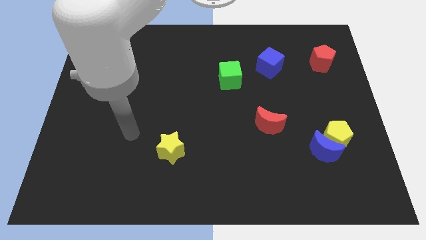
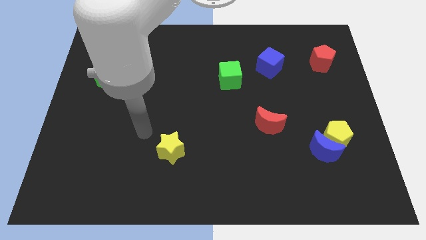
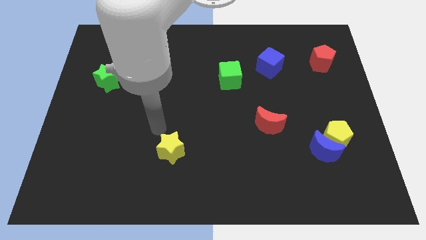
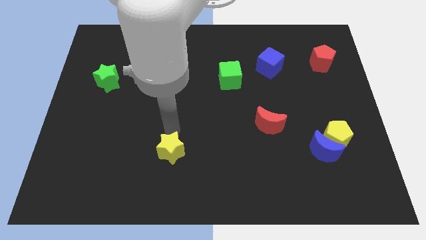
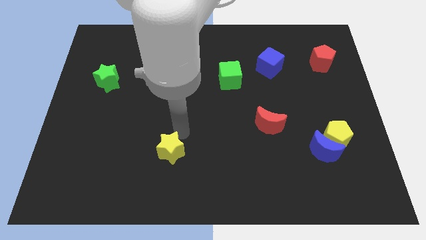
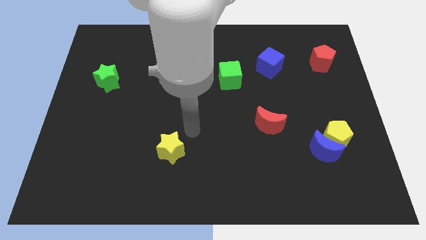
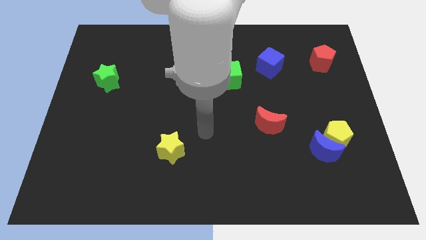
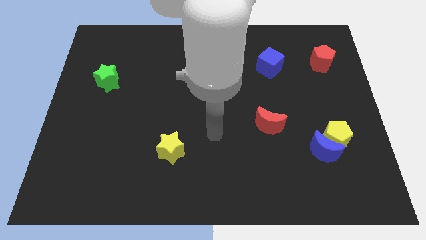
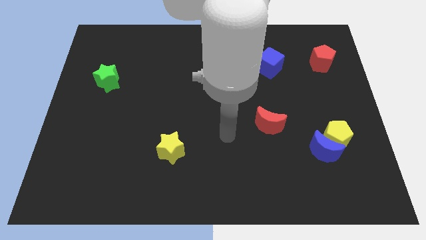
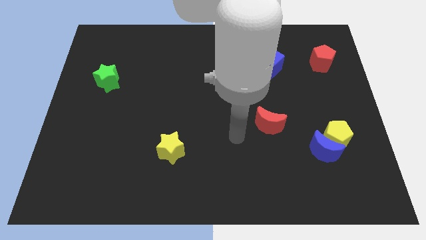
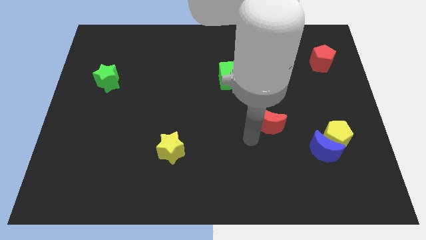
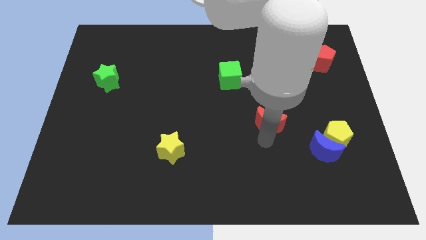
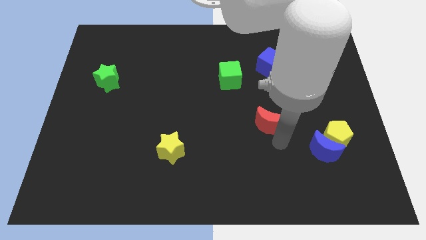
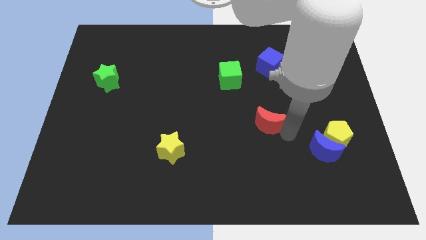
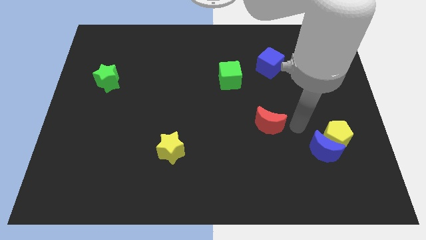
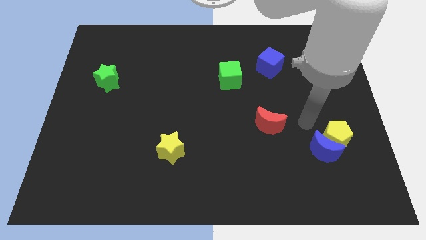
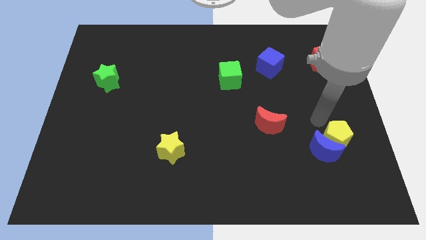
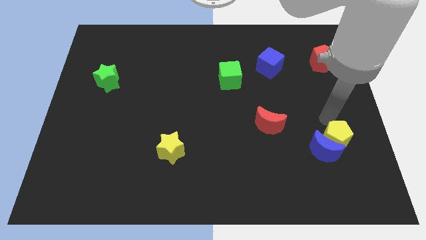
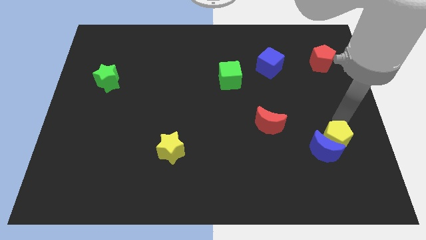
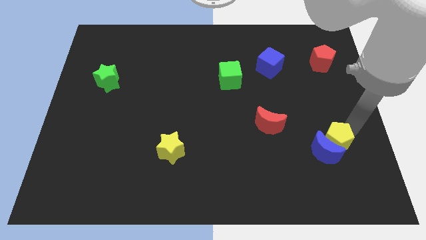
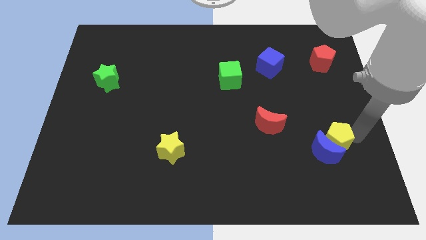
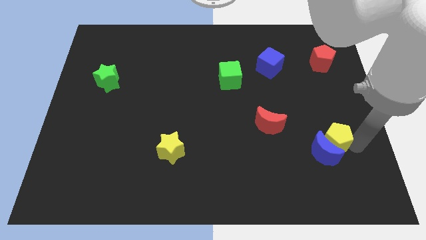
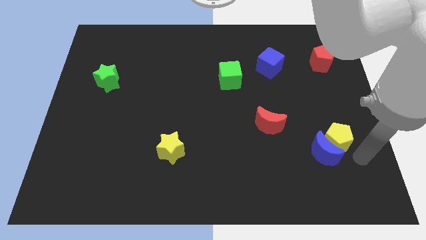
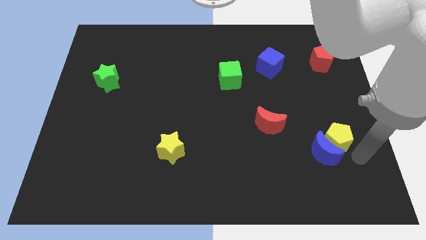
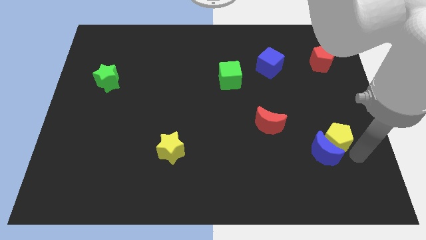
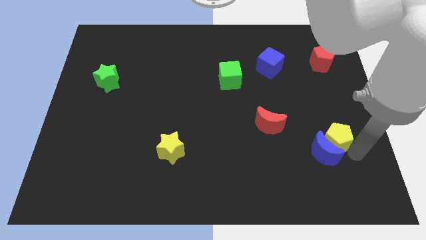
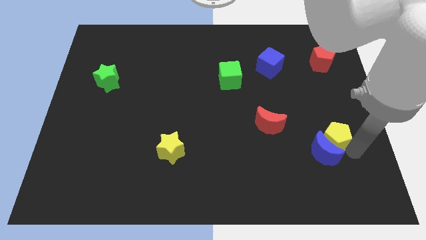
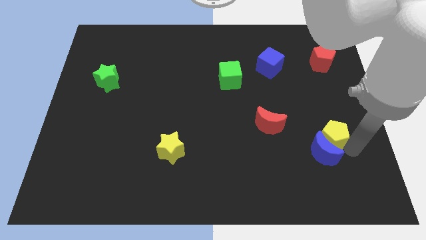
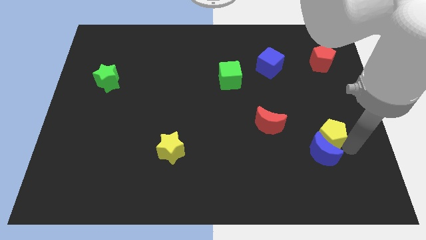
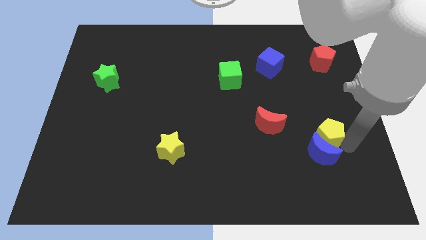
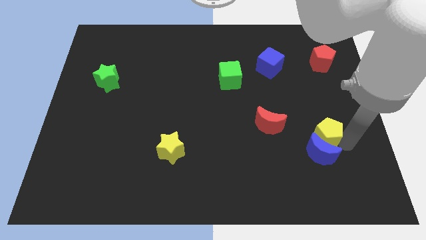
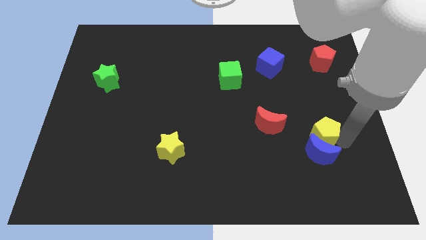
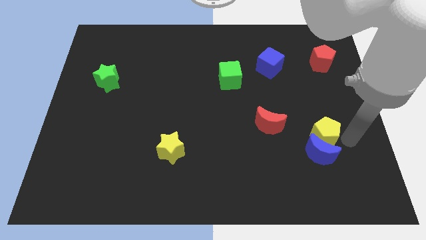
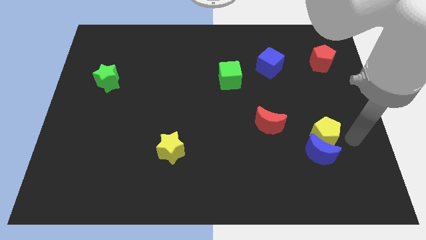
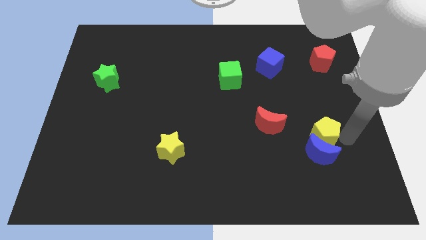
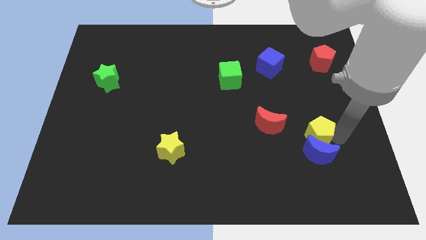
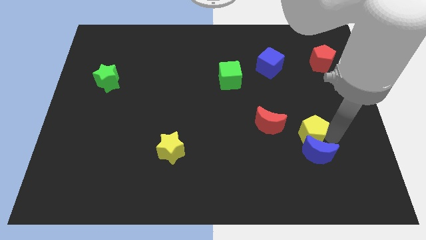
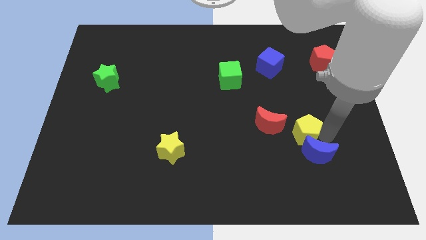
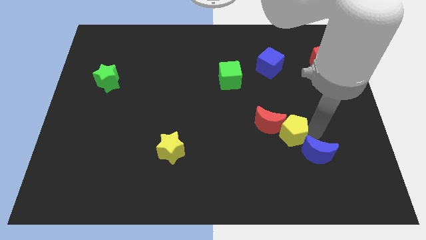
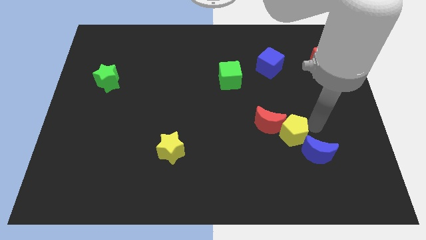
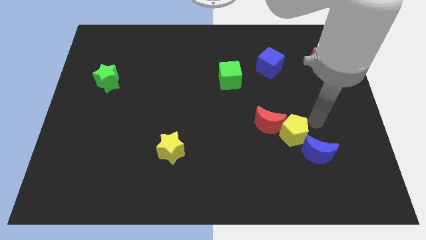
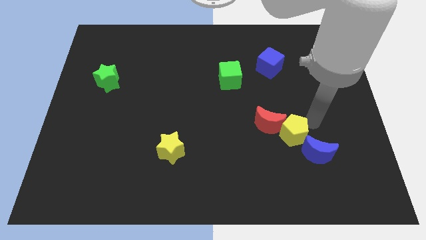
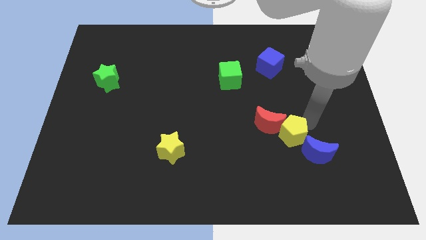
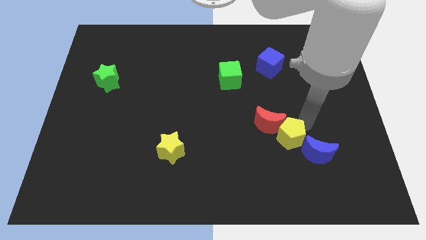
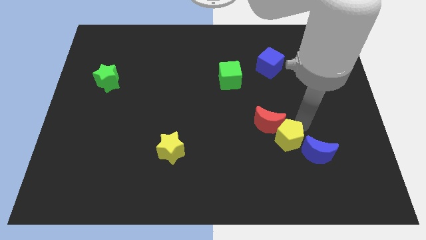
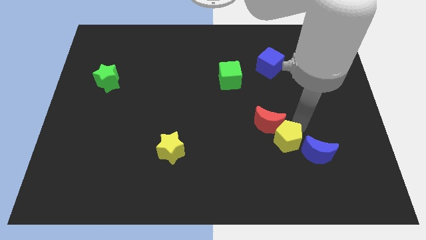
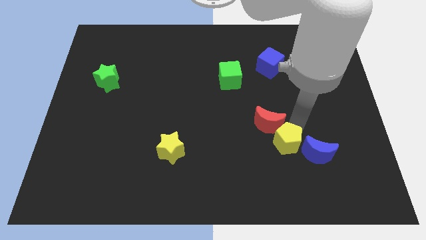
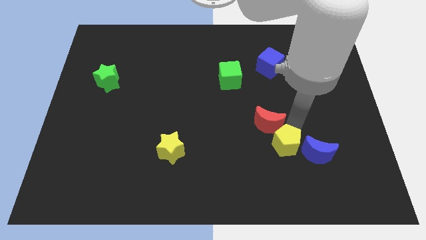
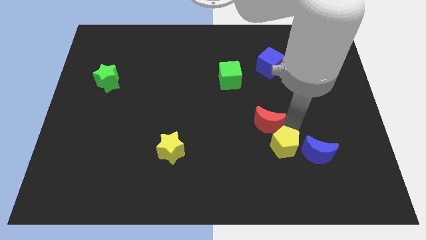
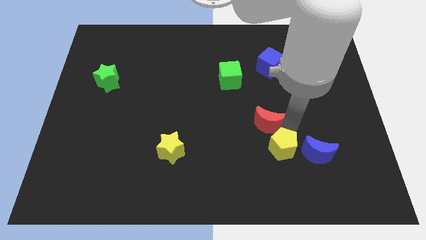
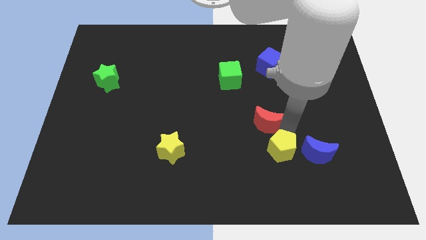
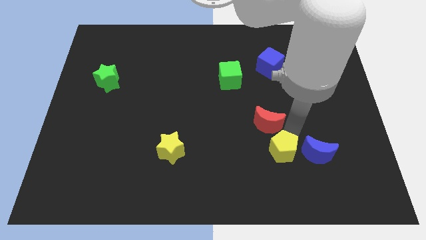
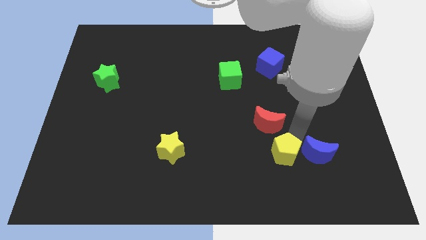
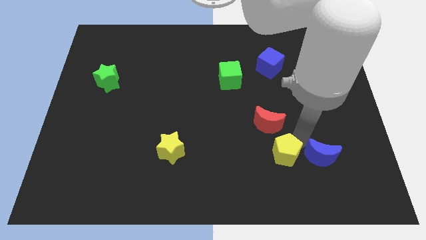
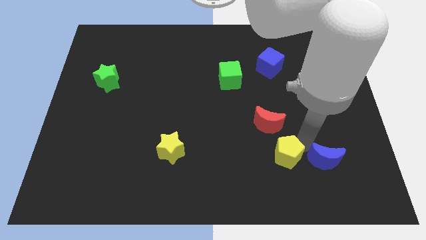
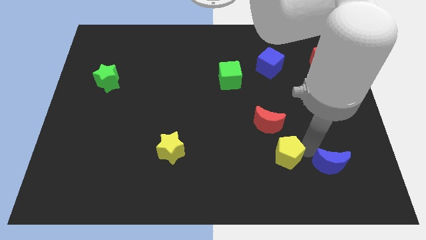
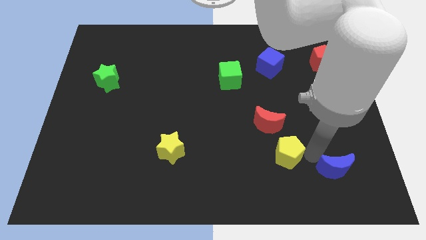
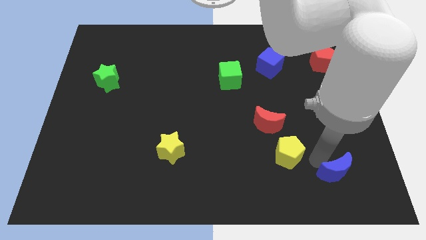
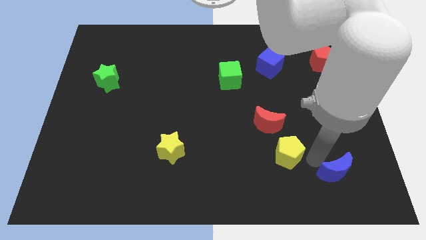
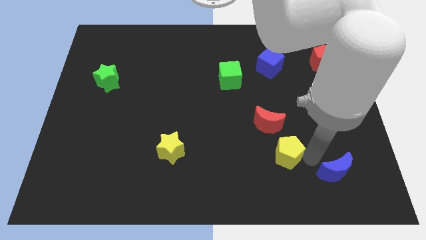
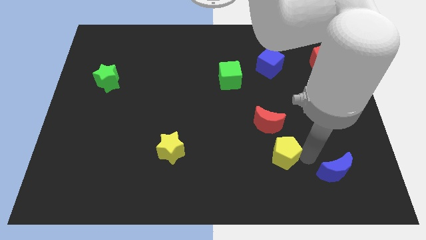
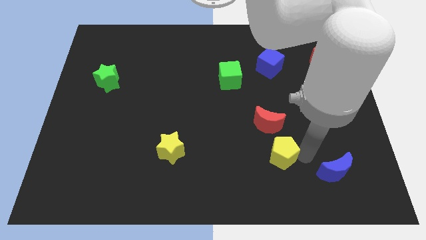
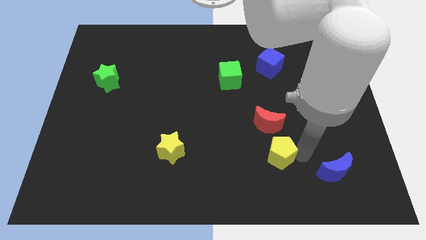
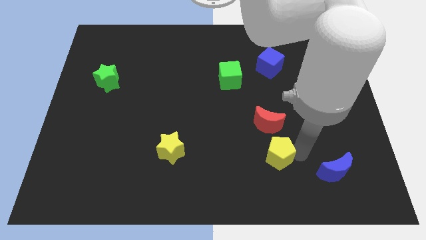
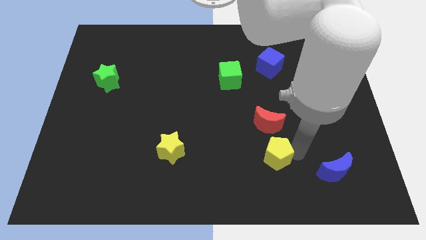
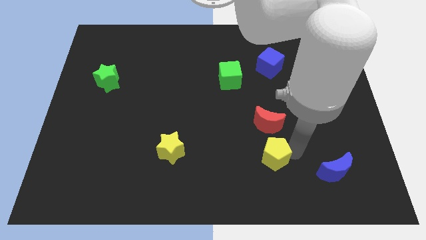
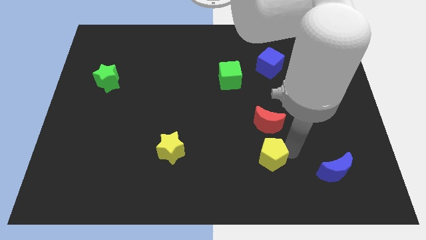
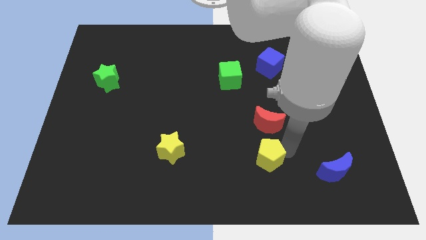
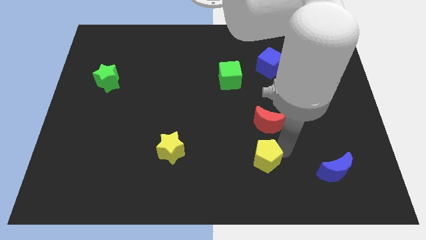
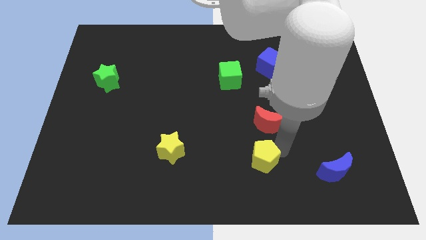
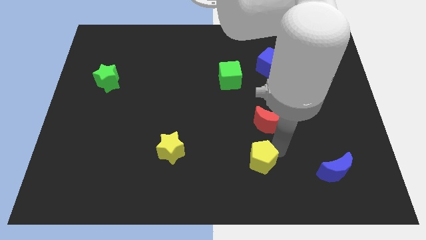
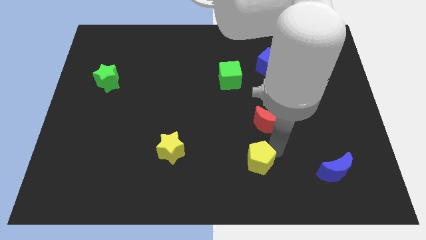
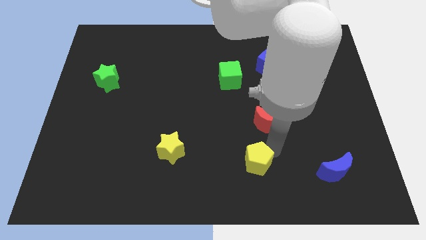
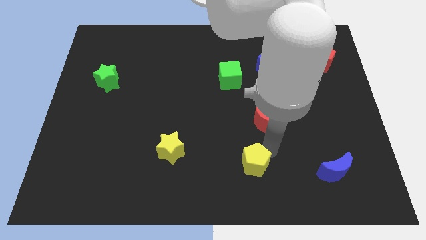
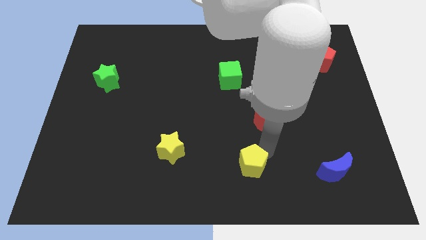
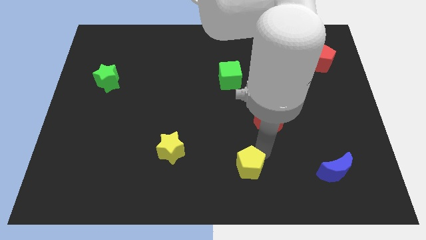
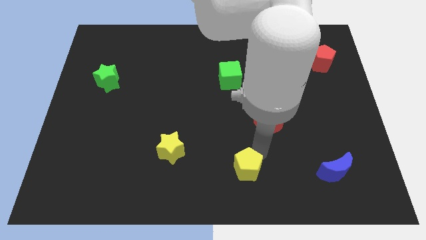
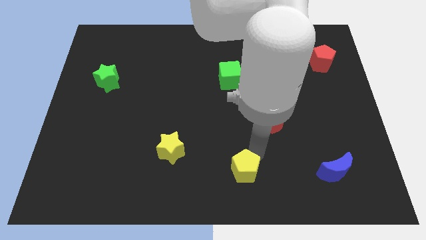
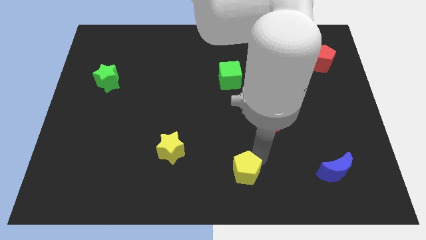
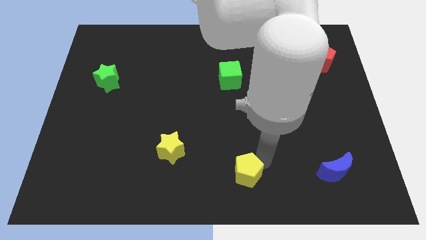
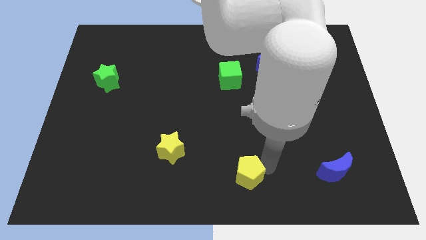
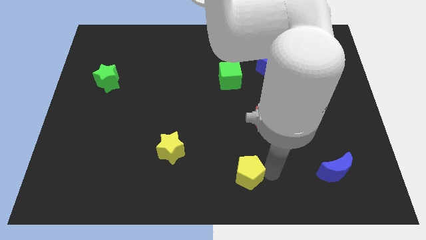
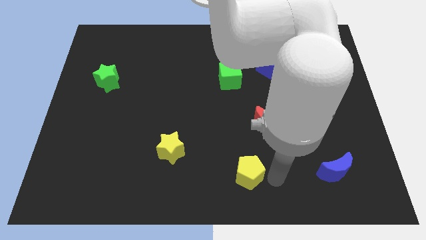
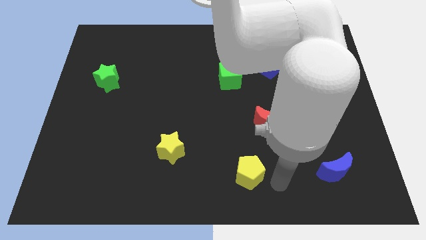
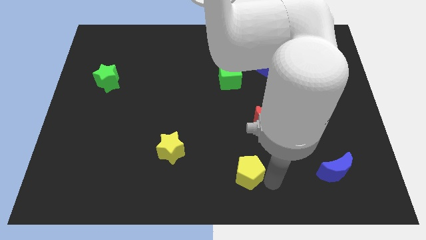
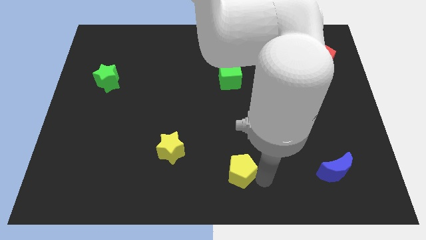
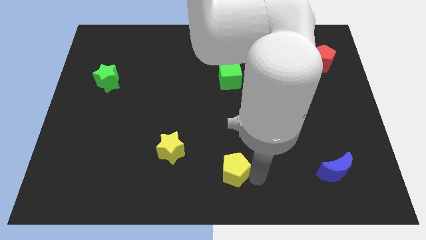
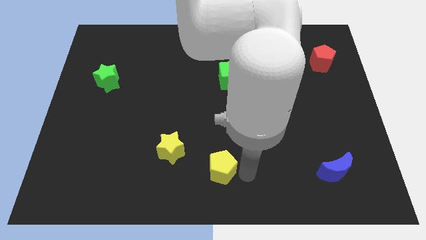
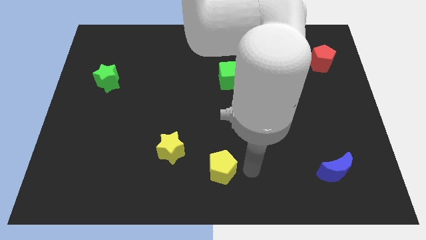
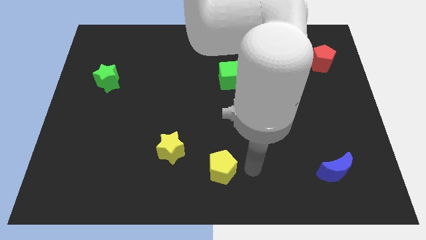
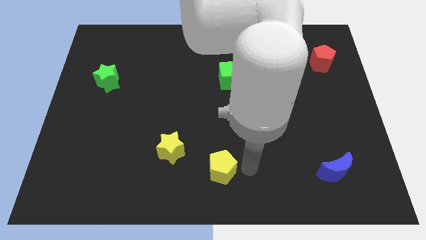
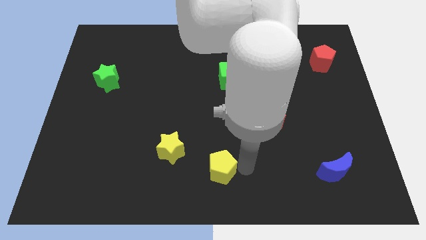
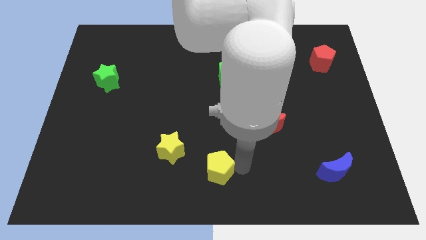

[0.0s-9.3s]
put the yellow pentagon to the bottom right side of the yellow star
